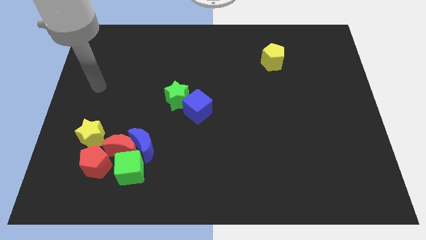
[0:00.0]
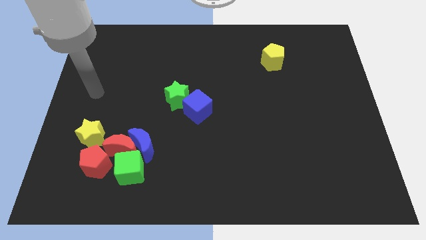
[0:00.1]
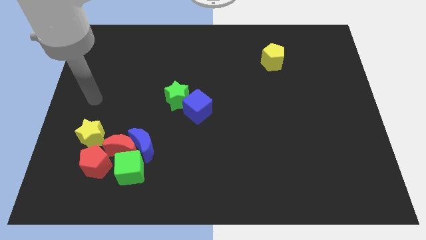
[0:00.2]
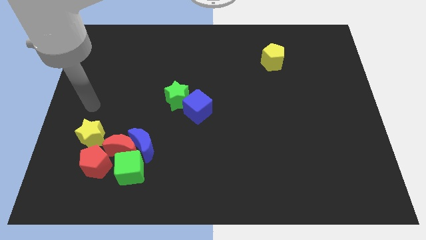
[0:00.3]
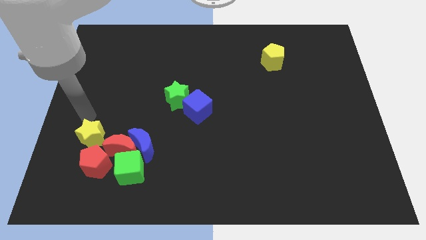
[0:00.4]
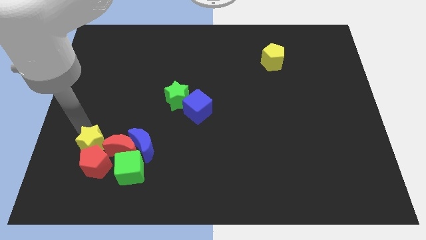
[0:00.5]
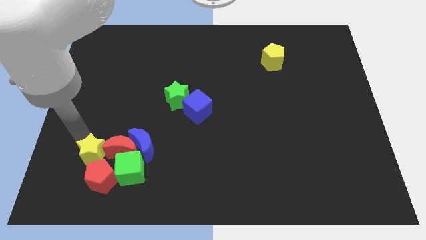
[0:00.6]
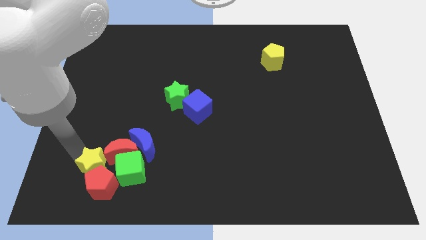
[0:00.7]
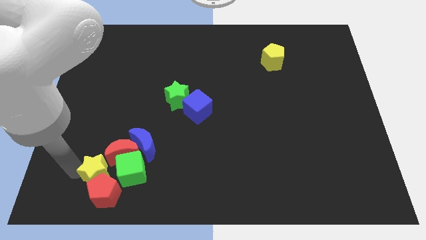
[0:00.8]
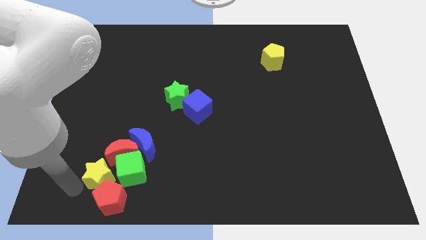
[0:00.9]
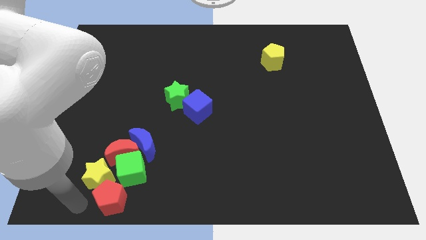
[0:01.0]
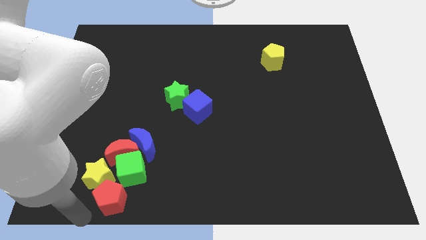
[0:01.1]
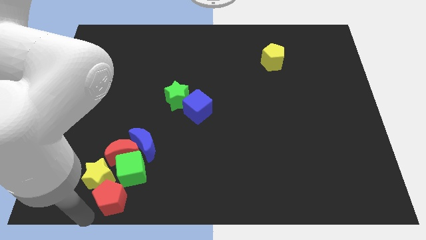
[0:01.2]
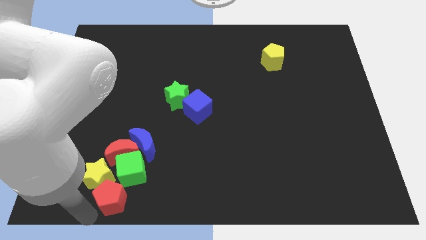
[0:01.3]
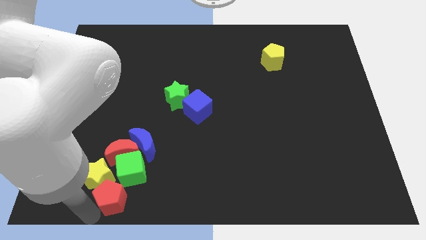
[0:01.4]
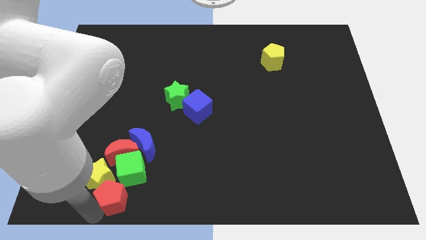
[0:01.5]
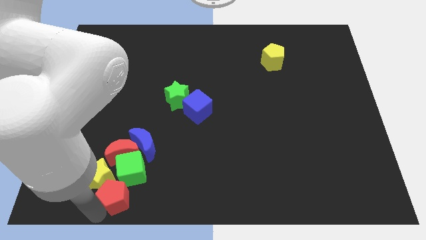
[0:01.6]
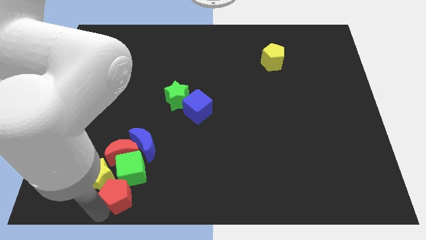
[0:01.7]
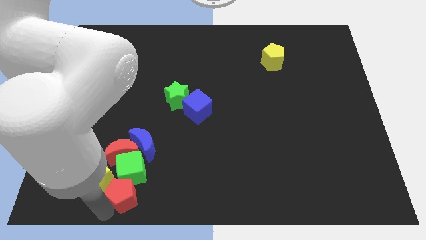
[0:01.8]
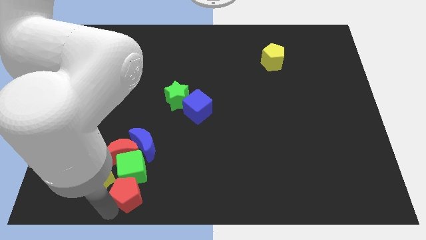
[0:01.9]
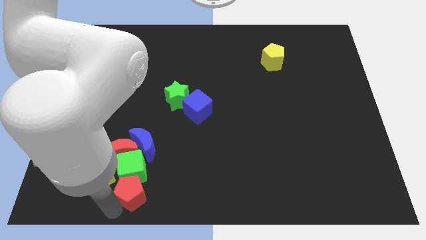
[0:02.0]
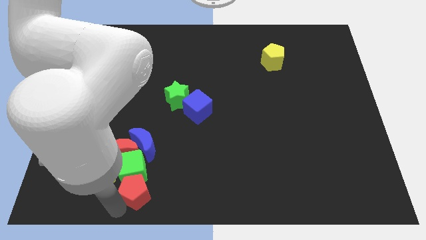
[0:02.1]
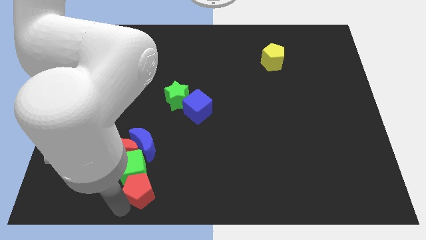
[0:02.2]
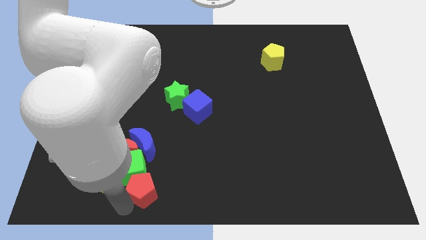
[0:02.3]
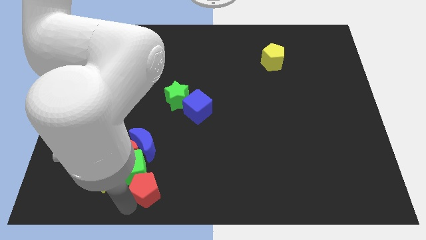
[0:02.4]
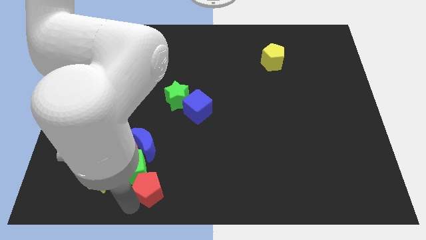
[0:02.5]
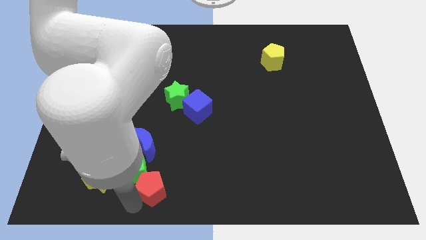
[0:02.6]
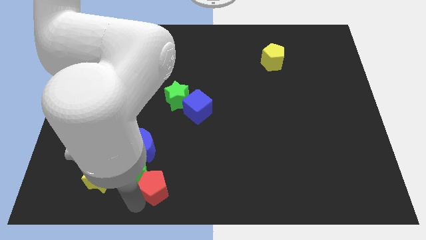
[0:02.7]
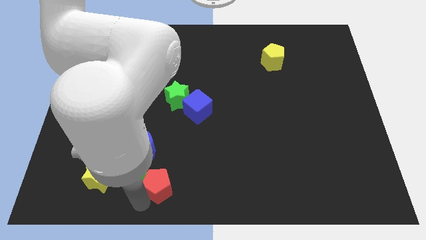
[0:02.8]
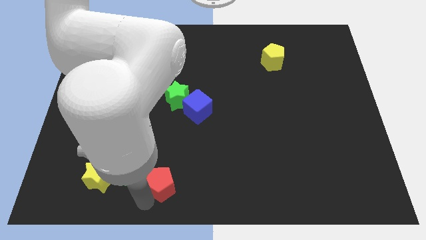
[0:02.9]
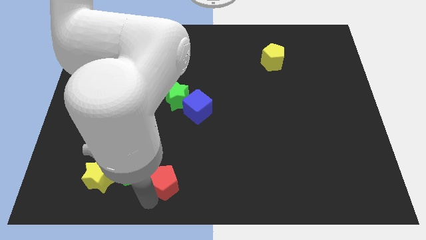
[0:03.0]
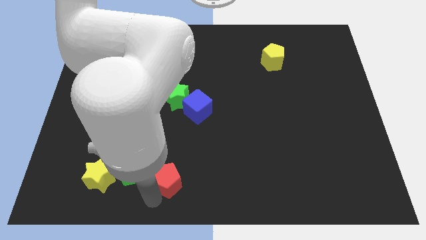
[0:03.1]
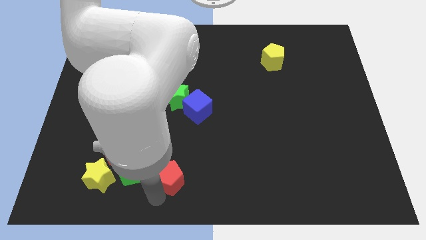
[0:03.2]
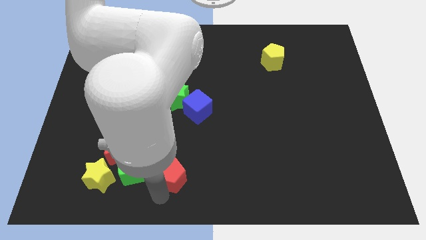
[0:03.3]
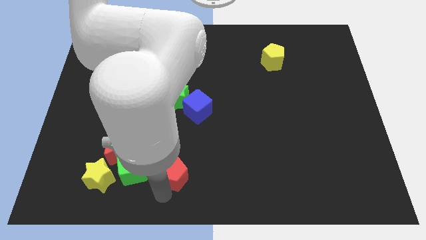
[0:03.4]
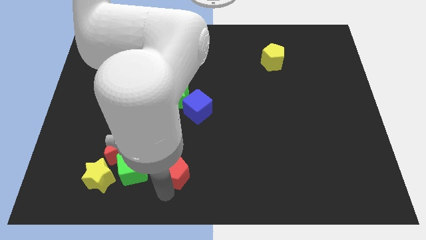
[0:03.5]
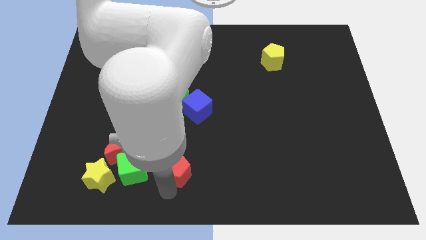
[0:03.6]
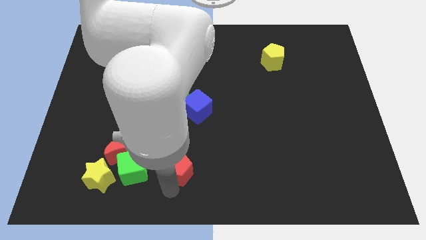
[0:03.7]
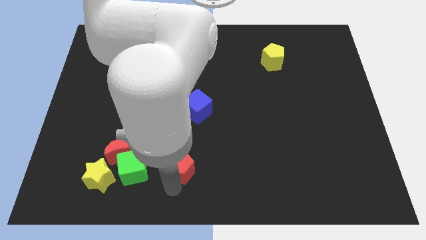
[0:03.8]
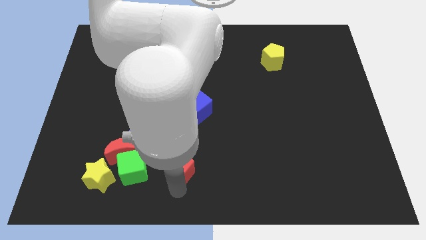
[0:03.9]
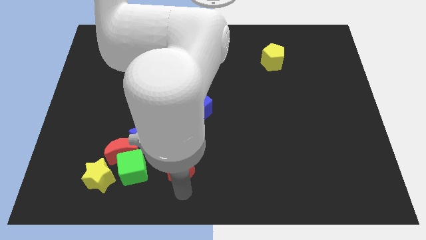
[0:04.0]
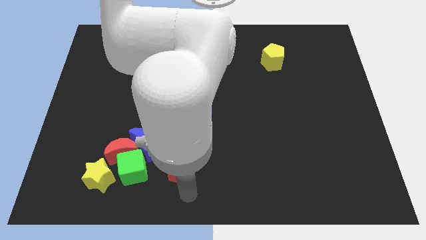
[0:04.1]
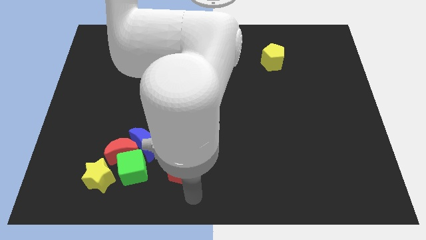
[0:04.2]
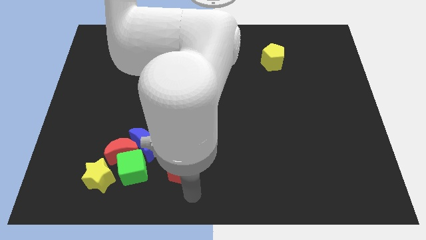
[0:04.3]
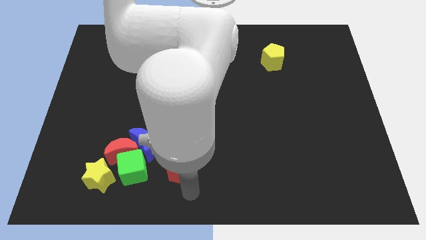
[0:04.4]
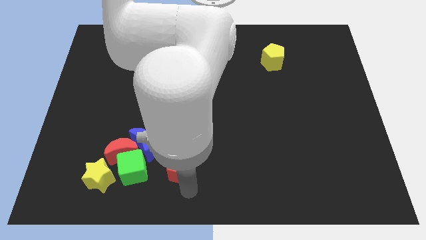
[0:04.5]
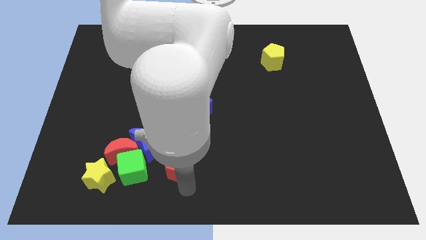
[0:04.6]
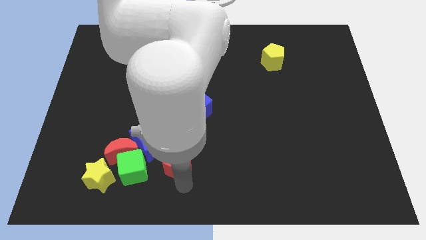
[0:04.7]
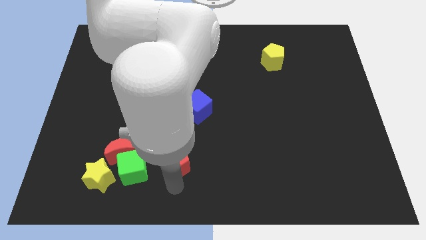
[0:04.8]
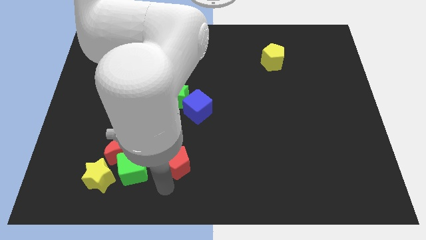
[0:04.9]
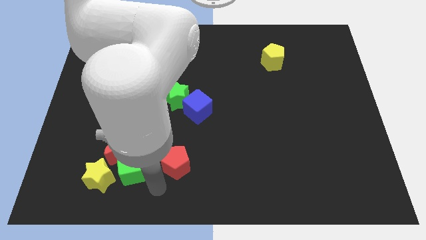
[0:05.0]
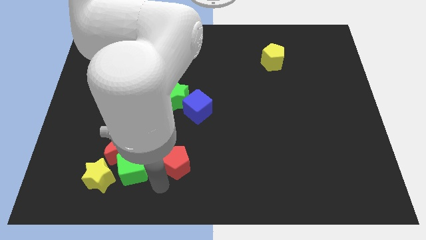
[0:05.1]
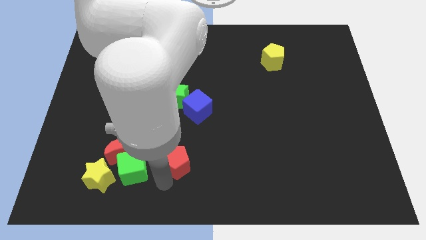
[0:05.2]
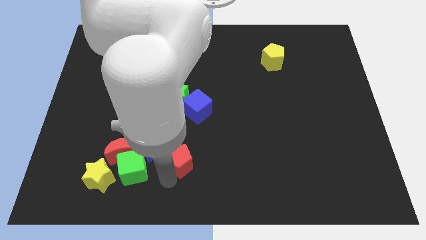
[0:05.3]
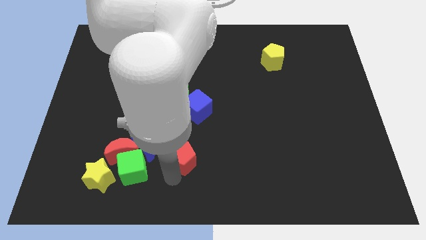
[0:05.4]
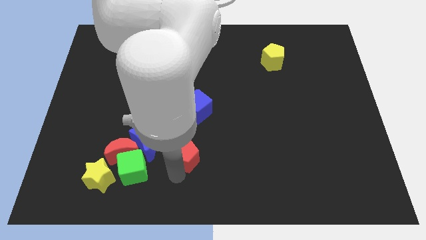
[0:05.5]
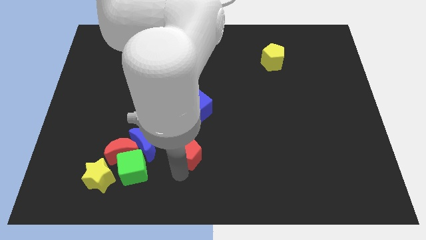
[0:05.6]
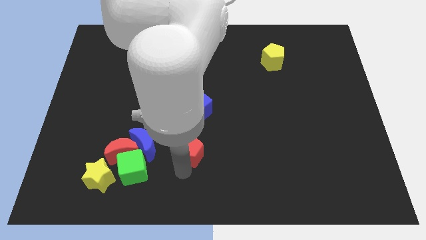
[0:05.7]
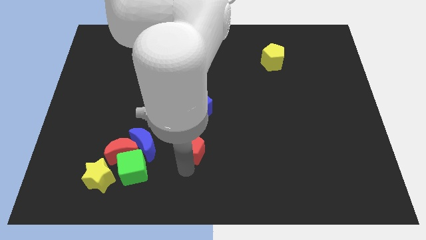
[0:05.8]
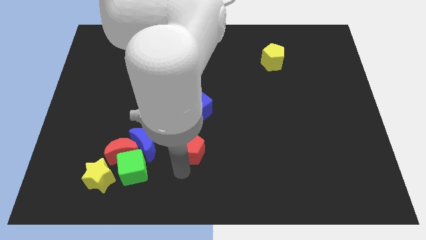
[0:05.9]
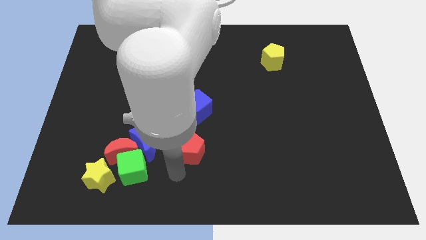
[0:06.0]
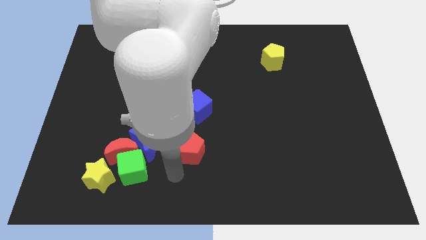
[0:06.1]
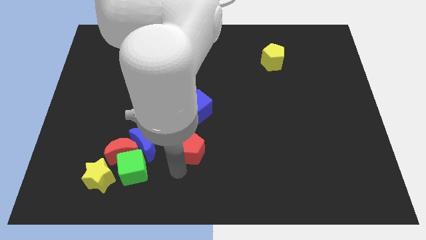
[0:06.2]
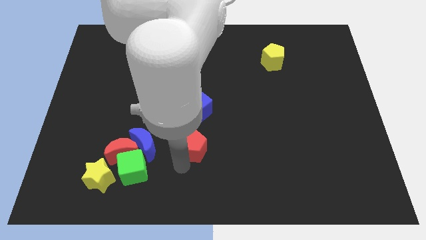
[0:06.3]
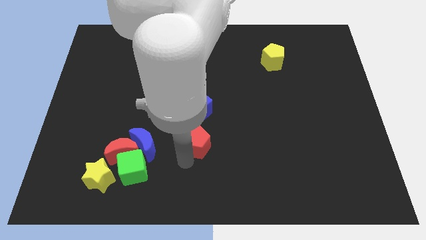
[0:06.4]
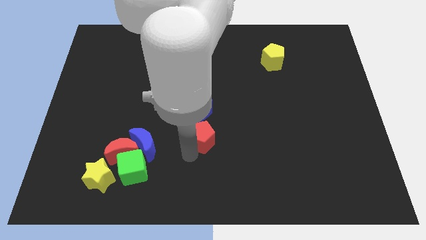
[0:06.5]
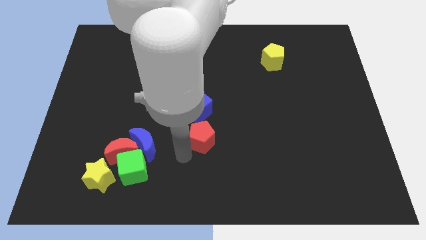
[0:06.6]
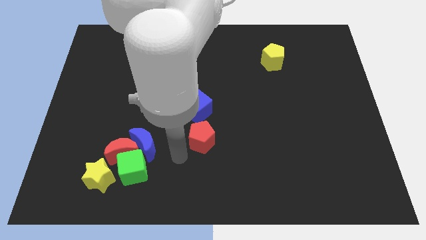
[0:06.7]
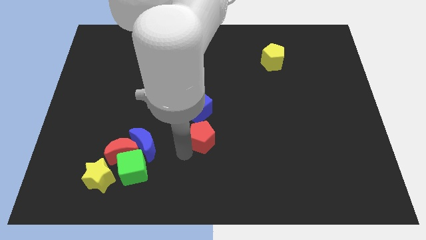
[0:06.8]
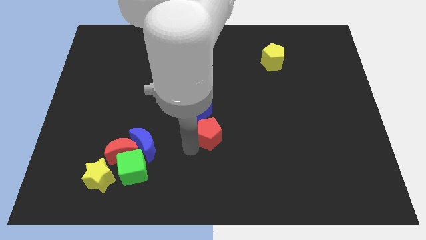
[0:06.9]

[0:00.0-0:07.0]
push the red pentagon to the bottom right of the blue cube
